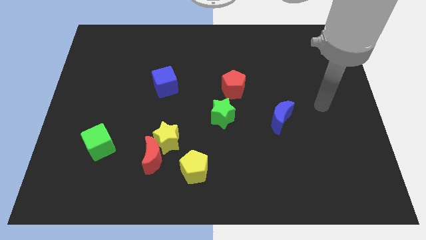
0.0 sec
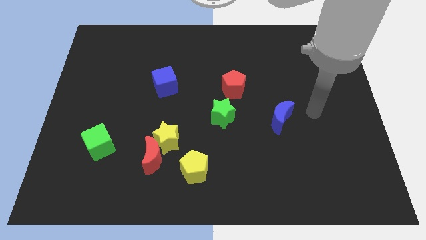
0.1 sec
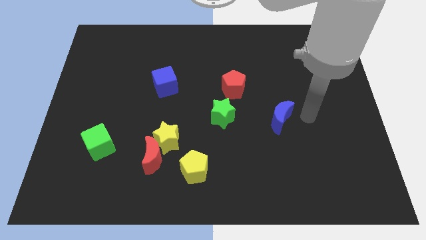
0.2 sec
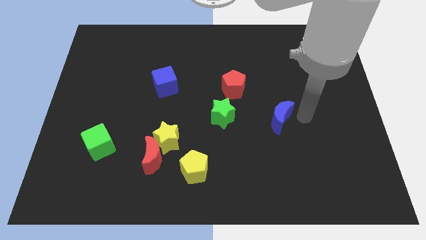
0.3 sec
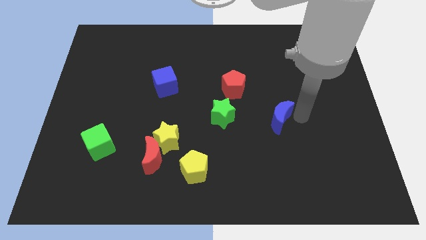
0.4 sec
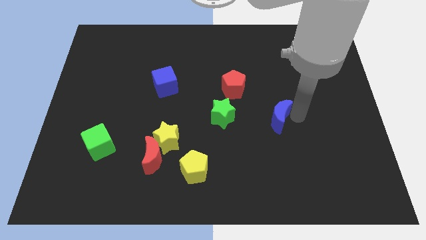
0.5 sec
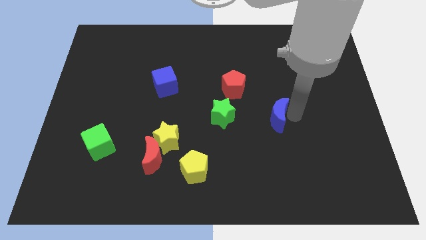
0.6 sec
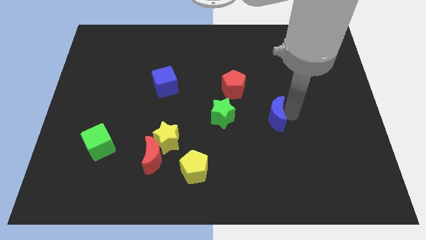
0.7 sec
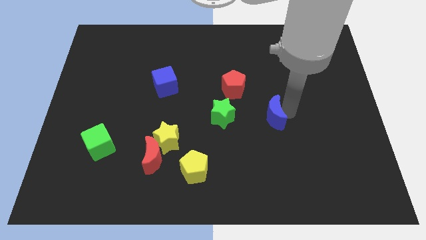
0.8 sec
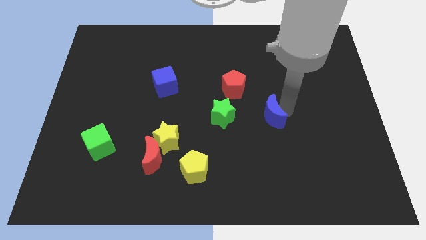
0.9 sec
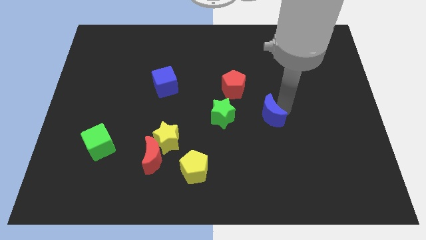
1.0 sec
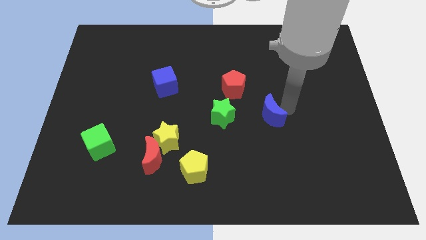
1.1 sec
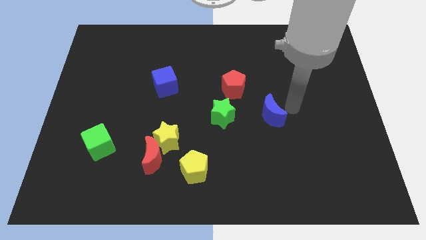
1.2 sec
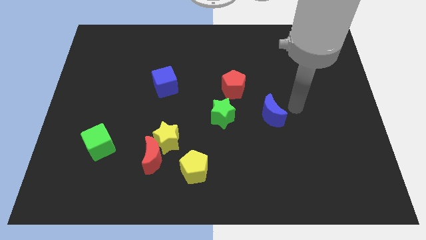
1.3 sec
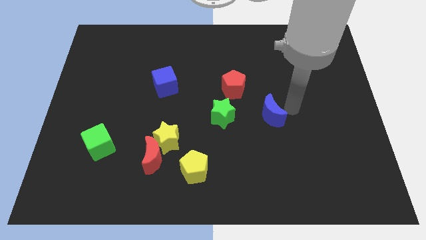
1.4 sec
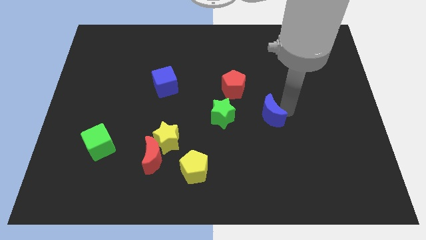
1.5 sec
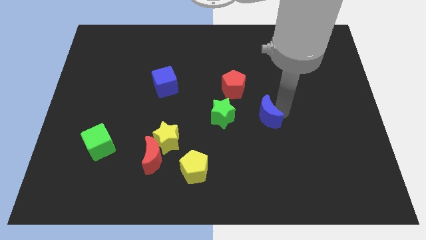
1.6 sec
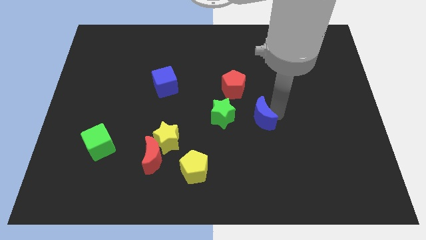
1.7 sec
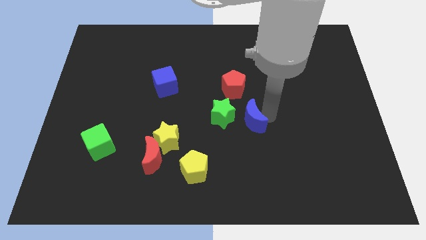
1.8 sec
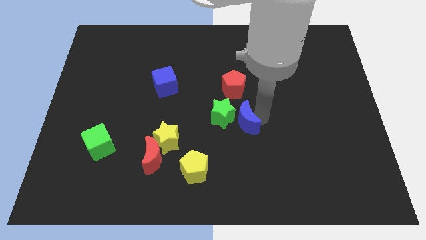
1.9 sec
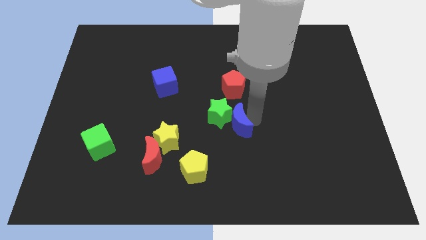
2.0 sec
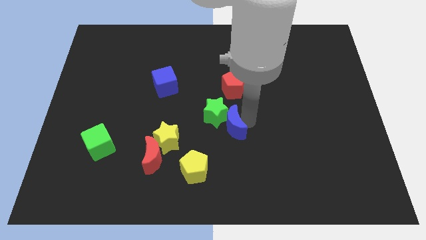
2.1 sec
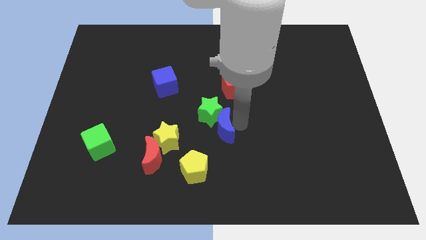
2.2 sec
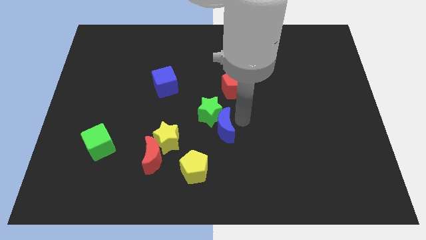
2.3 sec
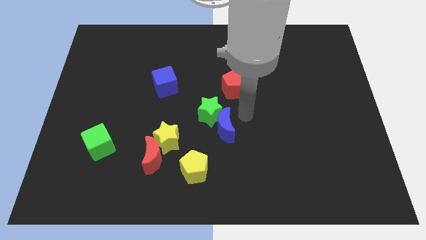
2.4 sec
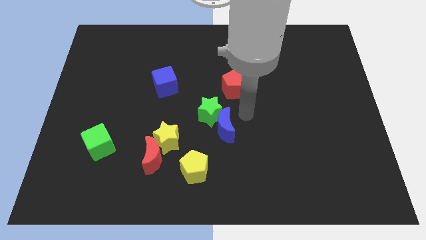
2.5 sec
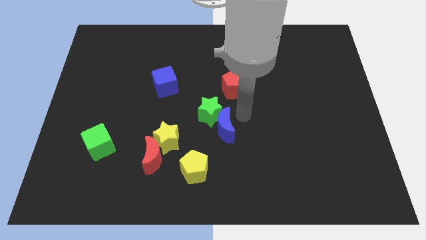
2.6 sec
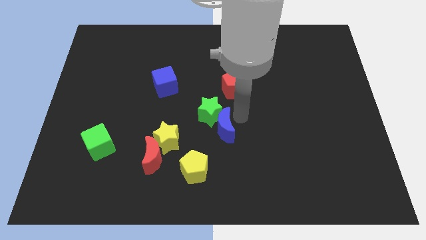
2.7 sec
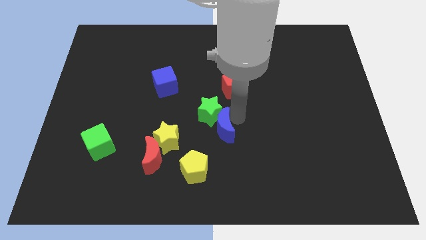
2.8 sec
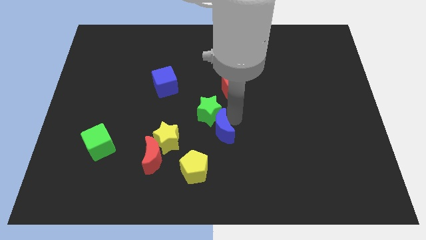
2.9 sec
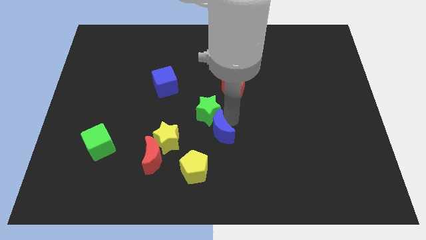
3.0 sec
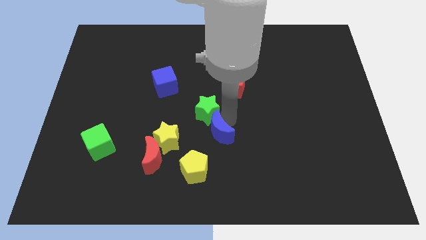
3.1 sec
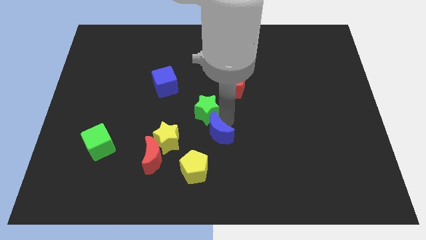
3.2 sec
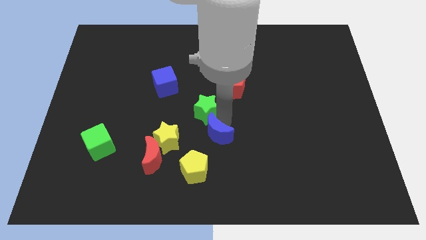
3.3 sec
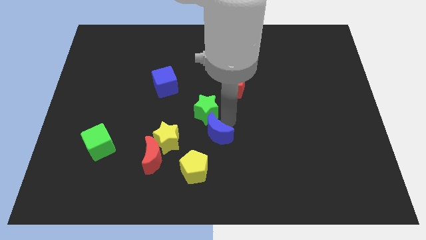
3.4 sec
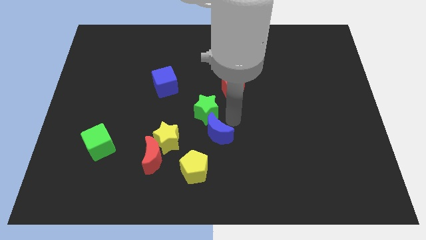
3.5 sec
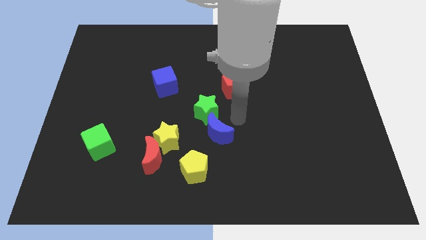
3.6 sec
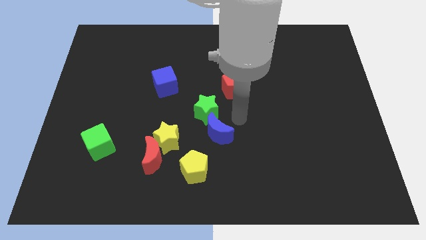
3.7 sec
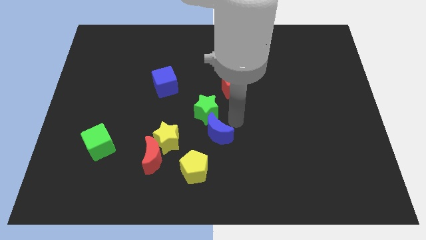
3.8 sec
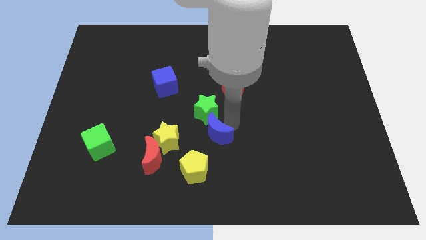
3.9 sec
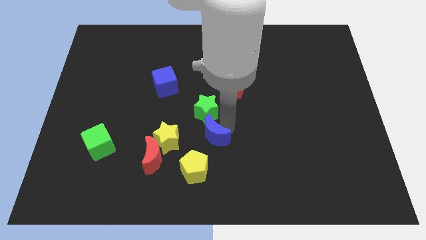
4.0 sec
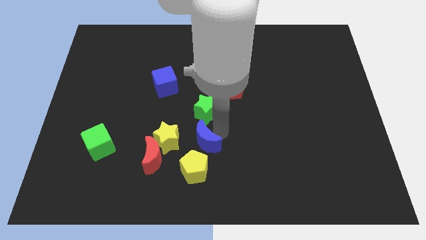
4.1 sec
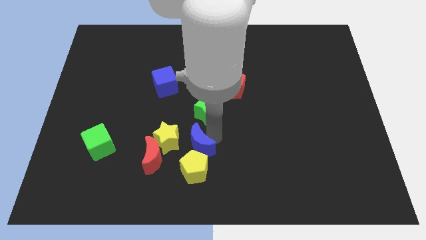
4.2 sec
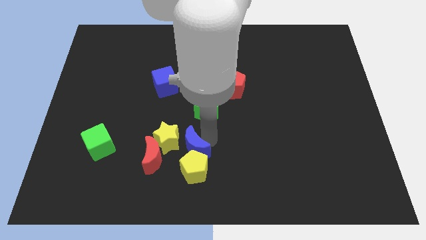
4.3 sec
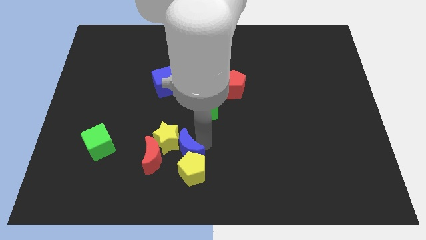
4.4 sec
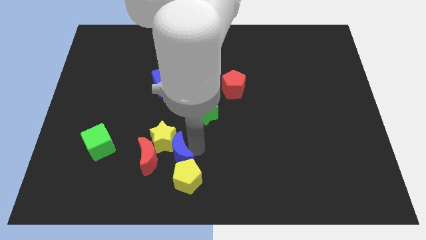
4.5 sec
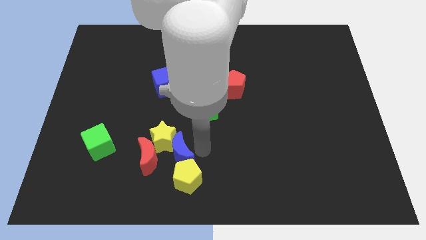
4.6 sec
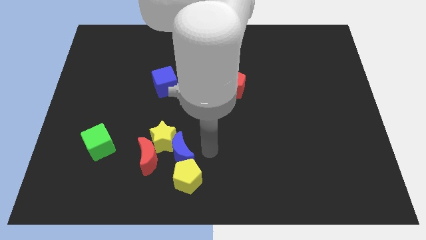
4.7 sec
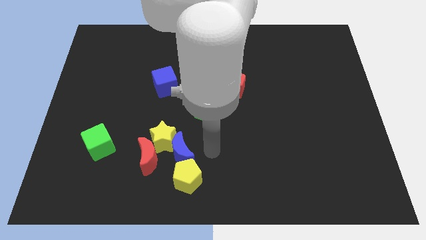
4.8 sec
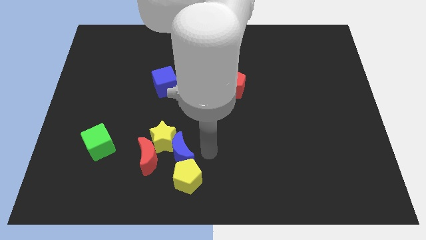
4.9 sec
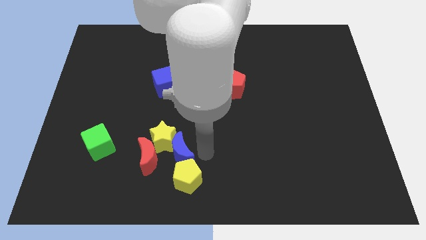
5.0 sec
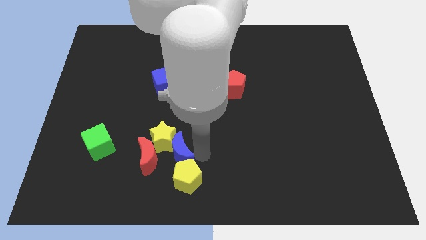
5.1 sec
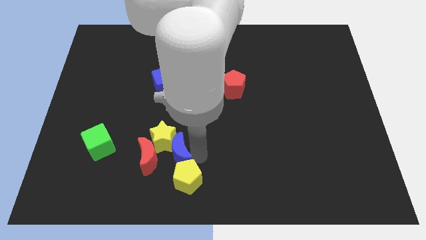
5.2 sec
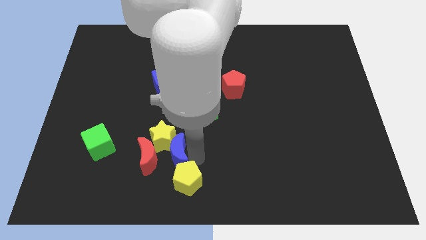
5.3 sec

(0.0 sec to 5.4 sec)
push the blue moon close to the red moon

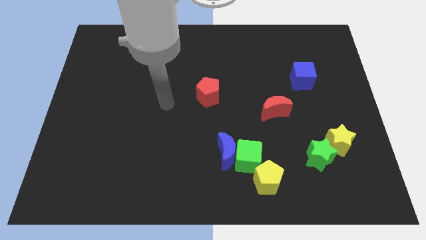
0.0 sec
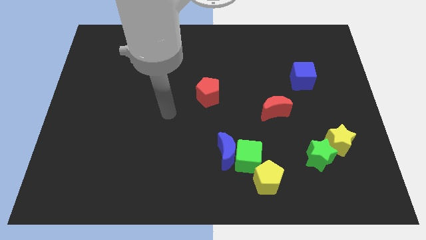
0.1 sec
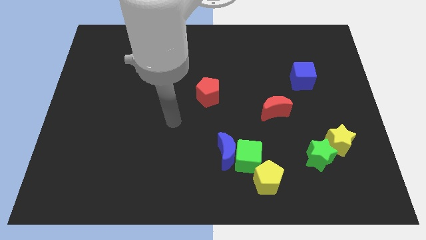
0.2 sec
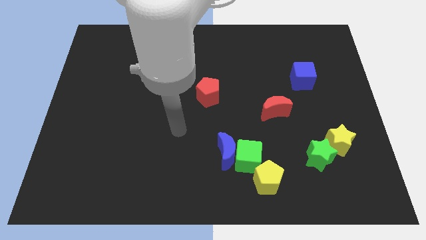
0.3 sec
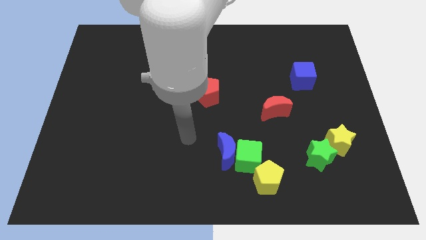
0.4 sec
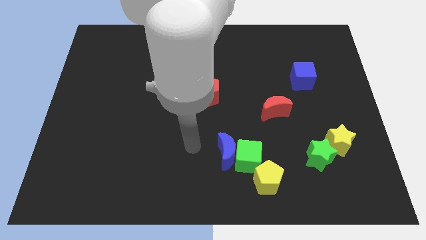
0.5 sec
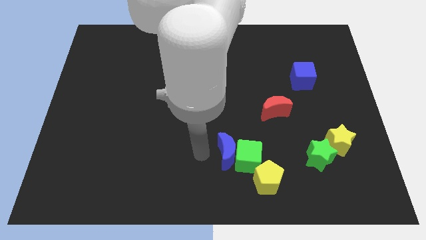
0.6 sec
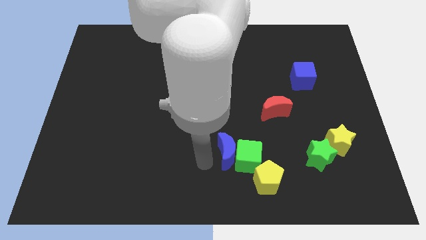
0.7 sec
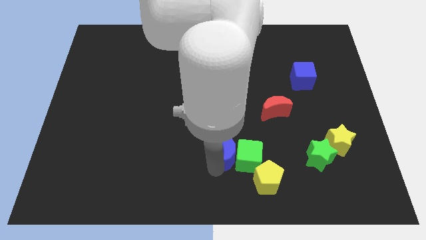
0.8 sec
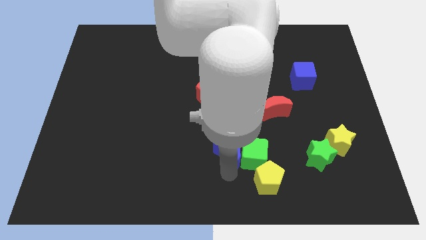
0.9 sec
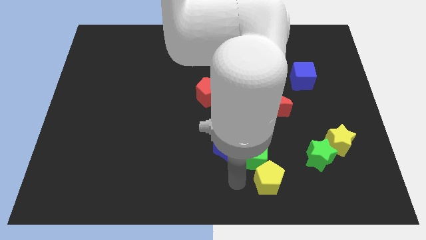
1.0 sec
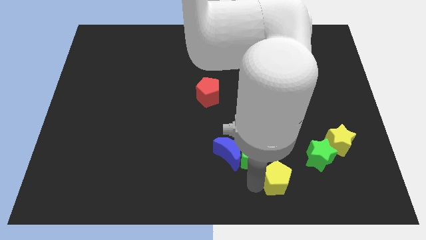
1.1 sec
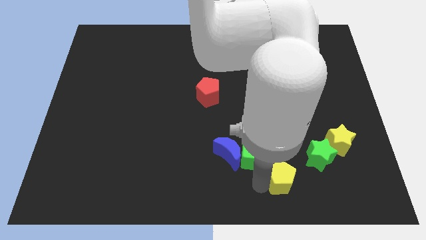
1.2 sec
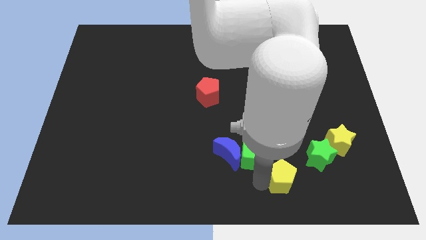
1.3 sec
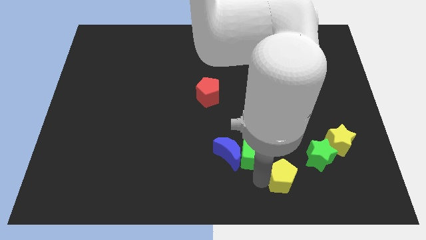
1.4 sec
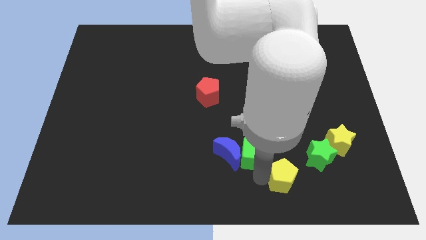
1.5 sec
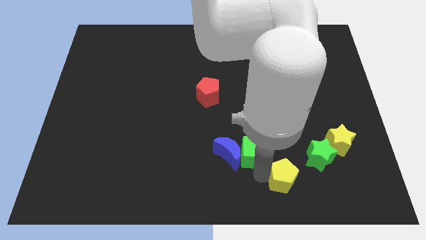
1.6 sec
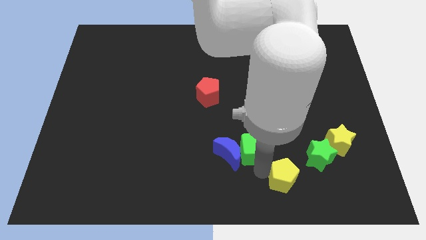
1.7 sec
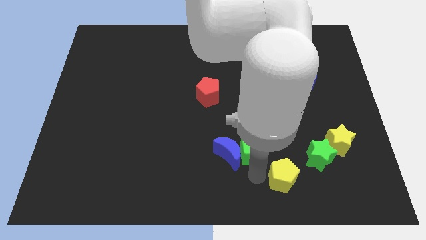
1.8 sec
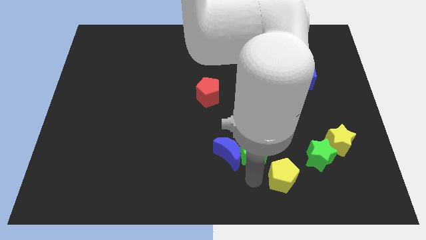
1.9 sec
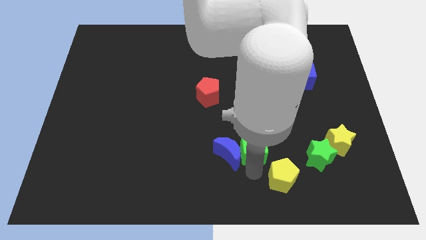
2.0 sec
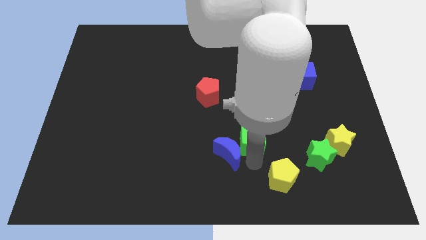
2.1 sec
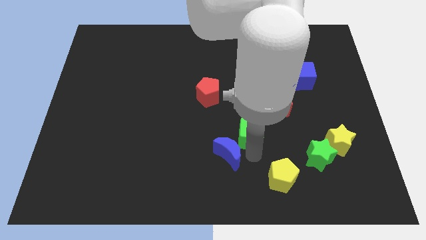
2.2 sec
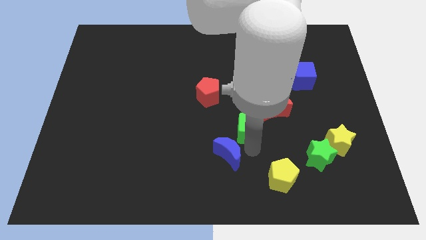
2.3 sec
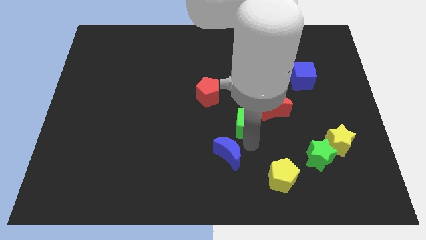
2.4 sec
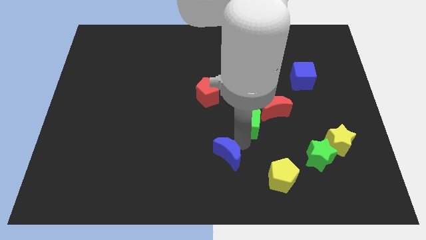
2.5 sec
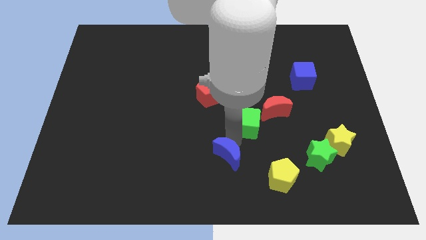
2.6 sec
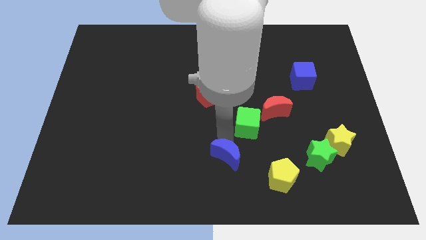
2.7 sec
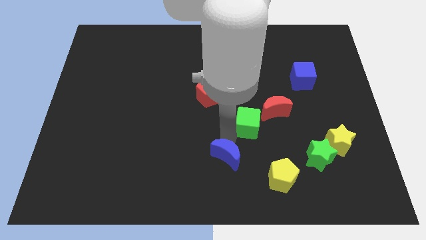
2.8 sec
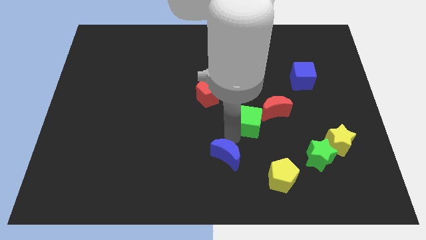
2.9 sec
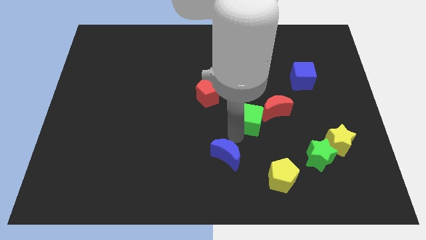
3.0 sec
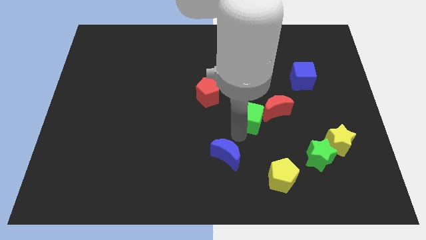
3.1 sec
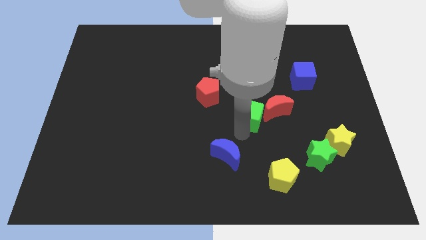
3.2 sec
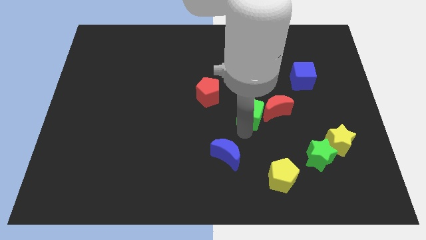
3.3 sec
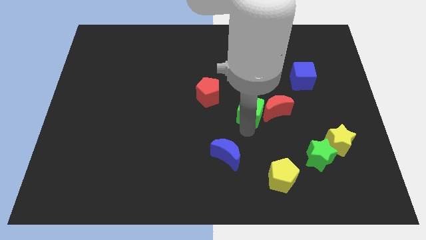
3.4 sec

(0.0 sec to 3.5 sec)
put the green cube to the red moon
